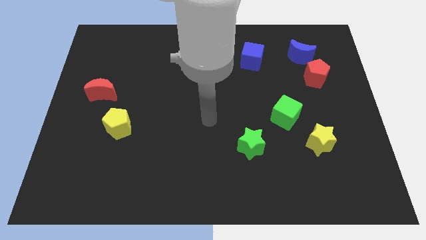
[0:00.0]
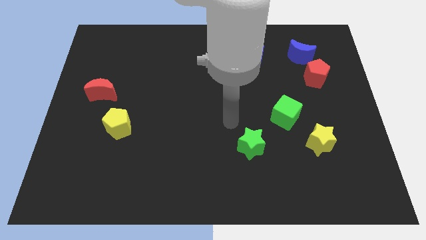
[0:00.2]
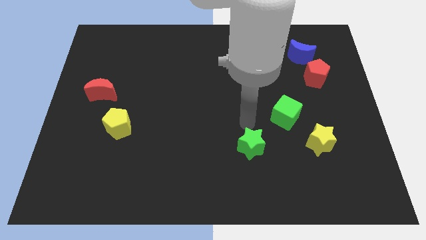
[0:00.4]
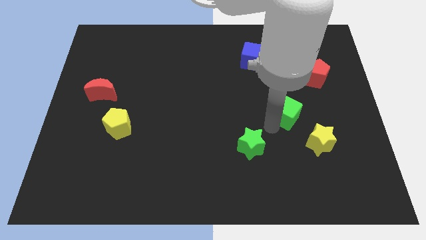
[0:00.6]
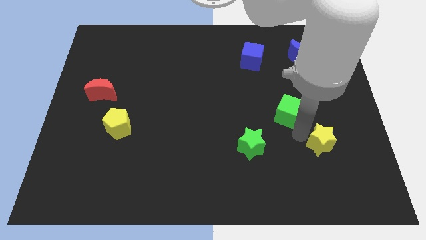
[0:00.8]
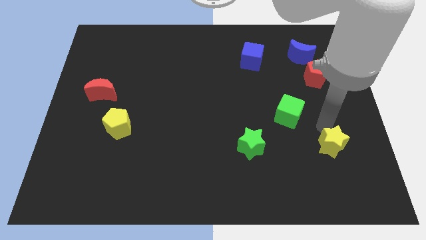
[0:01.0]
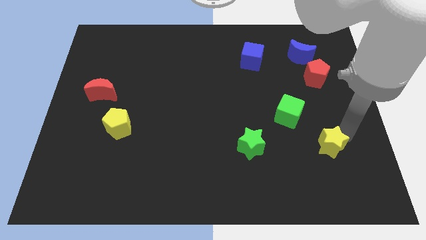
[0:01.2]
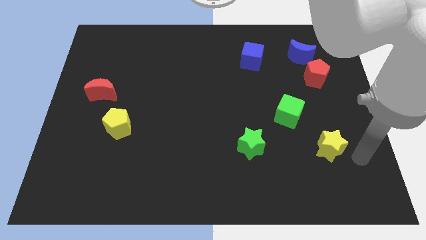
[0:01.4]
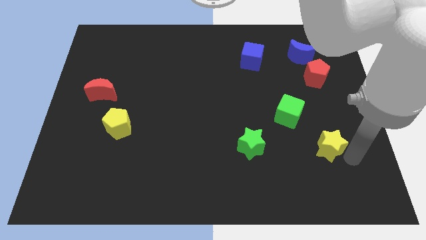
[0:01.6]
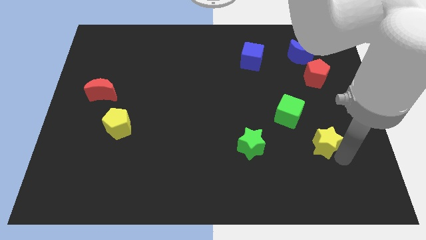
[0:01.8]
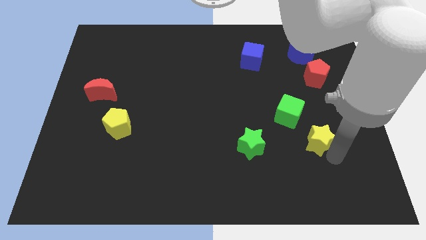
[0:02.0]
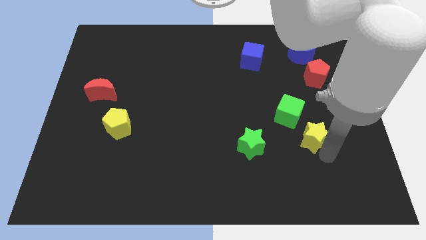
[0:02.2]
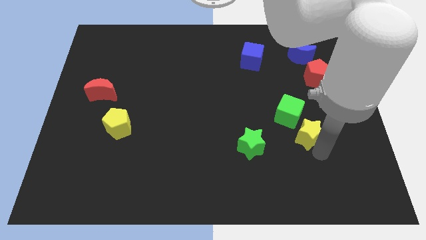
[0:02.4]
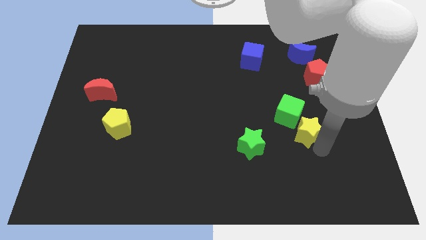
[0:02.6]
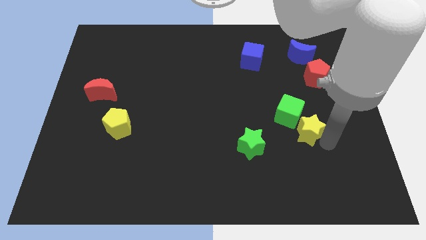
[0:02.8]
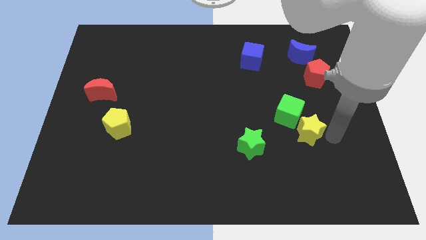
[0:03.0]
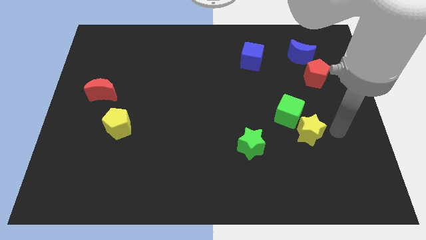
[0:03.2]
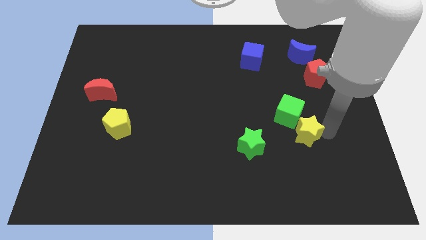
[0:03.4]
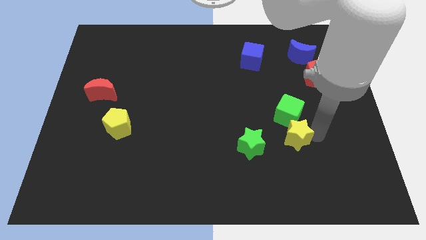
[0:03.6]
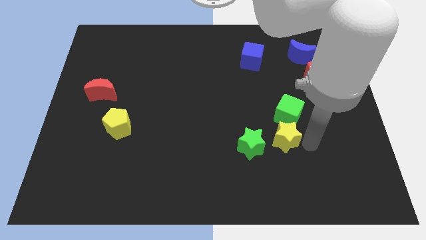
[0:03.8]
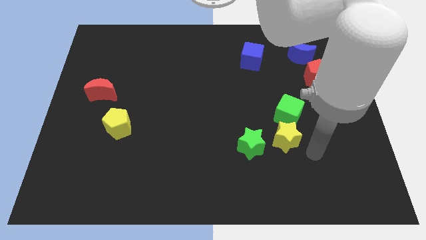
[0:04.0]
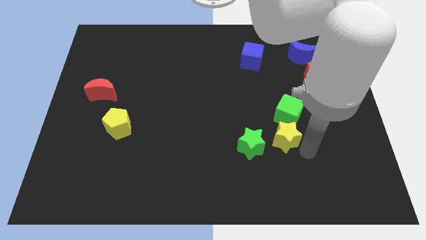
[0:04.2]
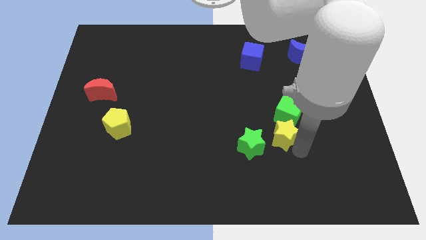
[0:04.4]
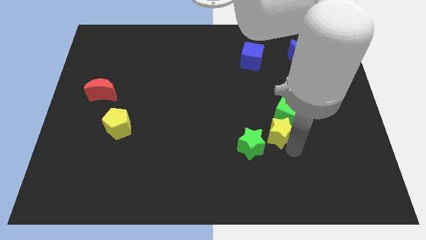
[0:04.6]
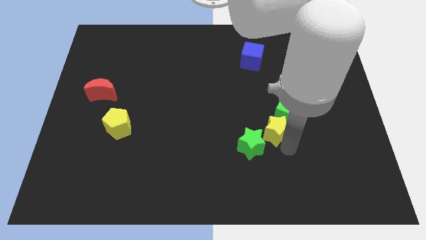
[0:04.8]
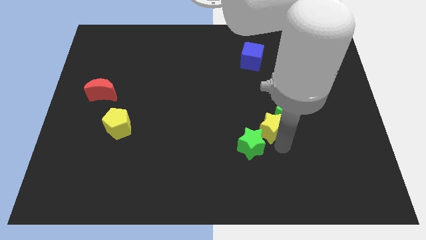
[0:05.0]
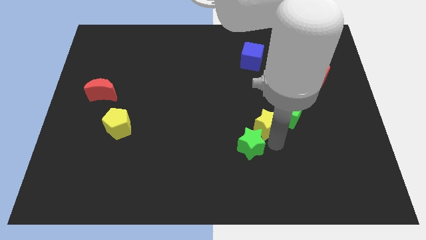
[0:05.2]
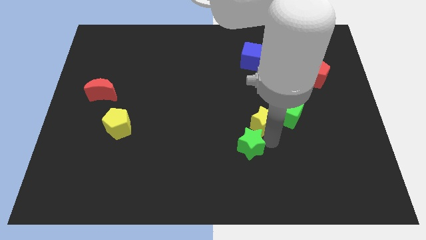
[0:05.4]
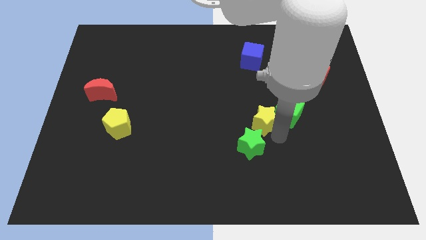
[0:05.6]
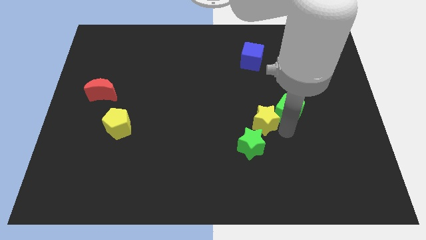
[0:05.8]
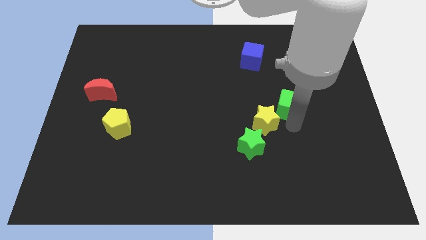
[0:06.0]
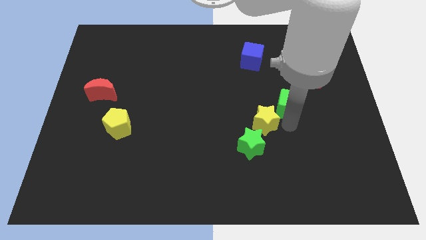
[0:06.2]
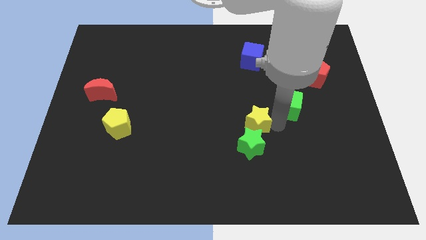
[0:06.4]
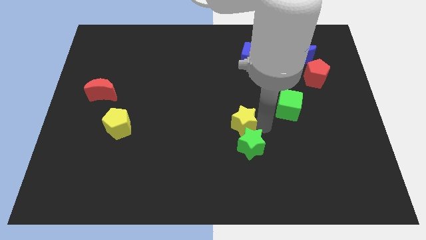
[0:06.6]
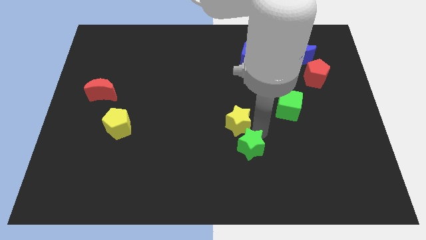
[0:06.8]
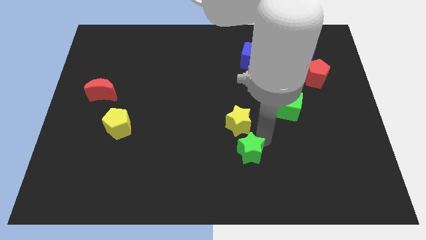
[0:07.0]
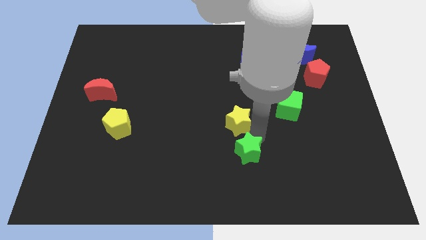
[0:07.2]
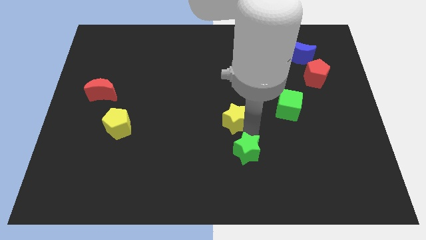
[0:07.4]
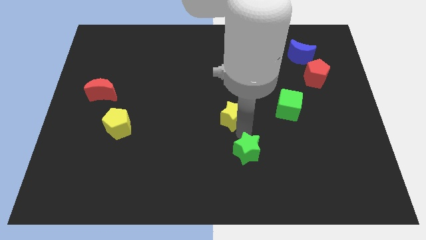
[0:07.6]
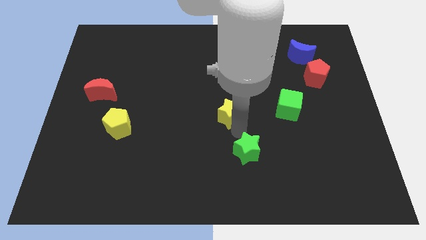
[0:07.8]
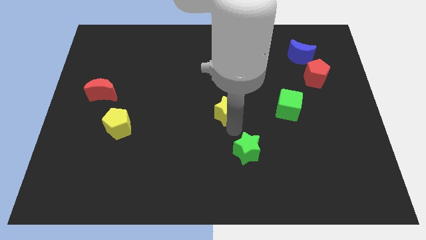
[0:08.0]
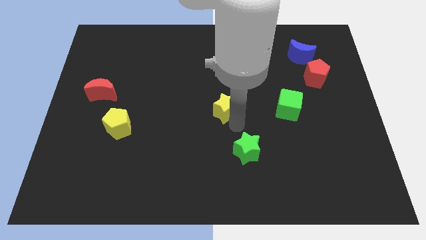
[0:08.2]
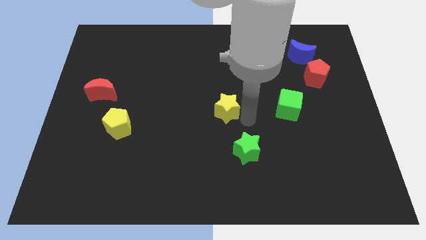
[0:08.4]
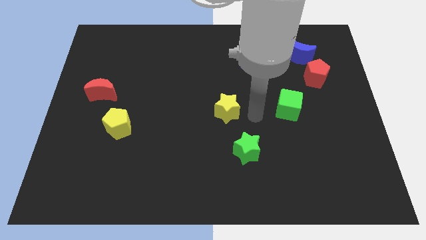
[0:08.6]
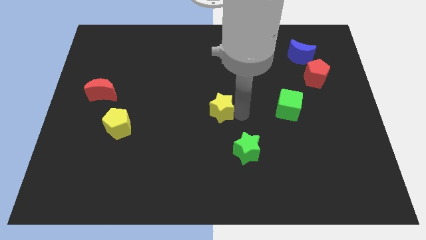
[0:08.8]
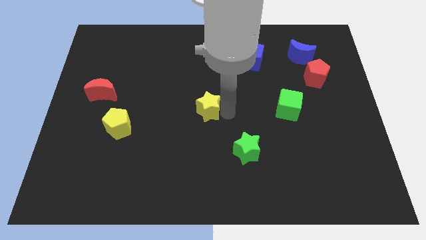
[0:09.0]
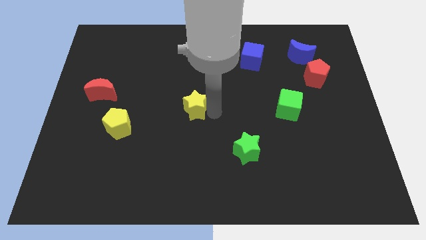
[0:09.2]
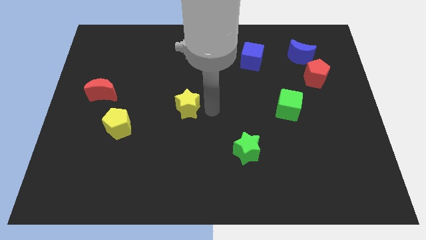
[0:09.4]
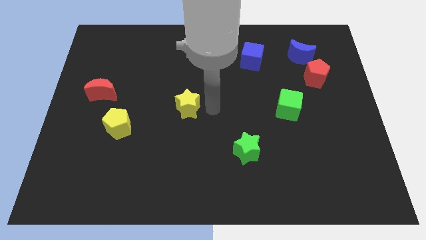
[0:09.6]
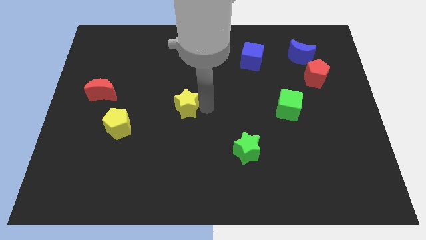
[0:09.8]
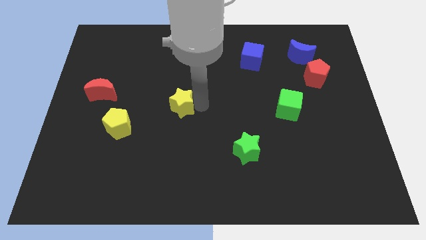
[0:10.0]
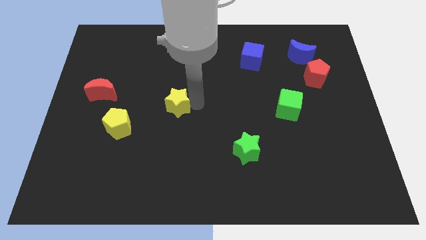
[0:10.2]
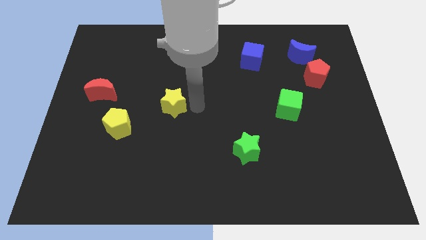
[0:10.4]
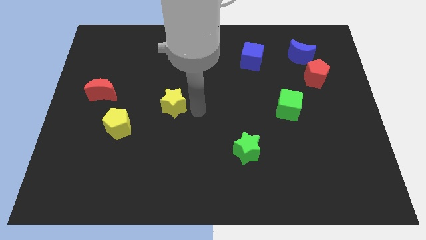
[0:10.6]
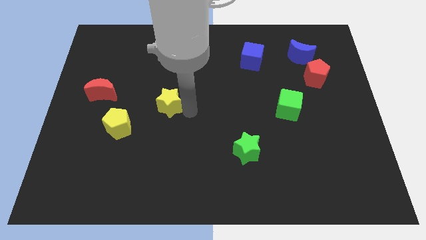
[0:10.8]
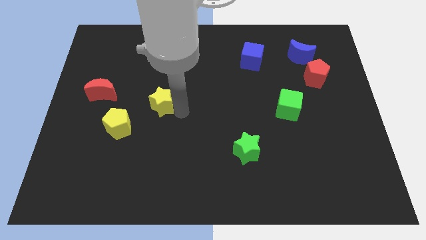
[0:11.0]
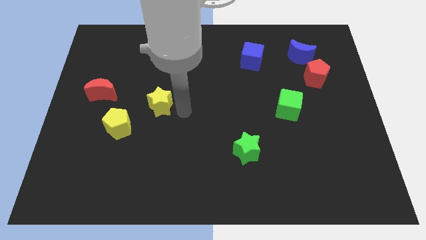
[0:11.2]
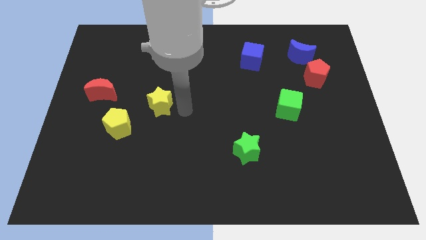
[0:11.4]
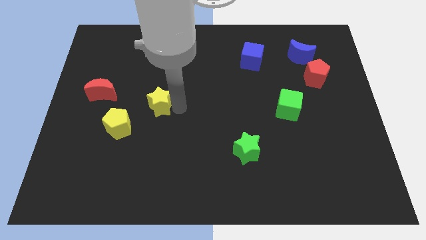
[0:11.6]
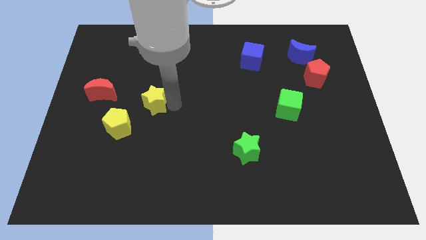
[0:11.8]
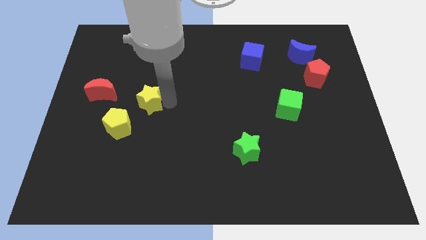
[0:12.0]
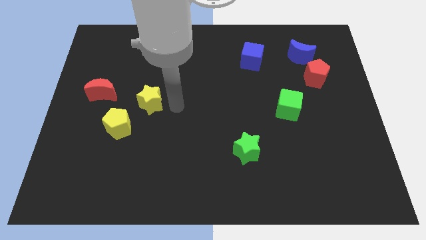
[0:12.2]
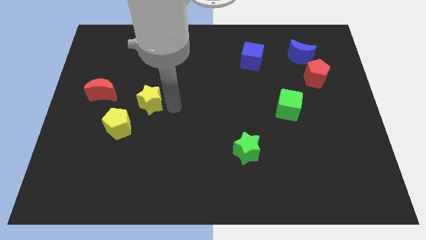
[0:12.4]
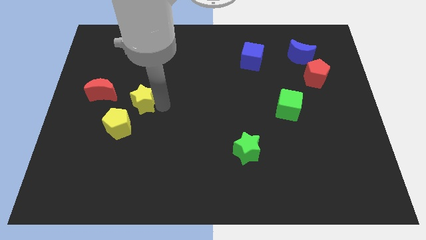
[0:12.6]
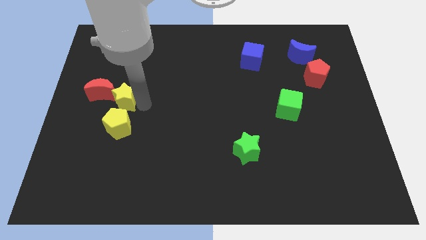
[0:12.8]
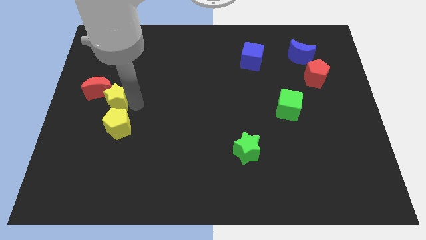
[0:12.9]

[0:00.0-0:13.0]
move the yellow star close to the red moon

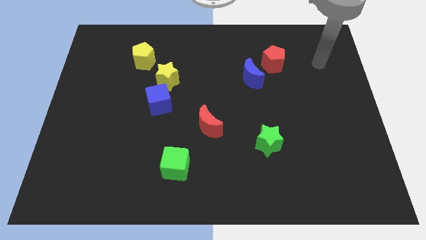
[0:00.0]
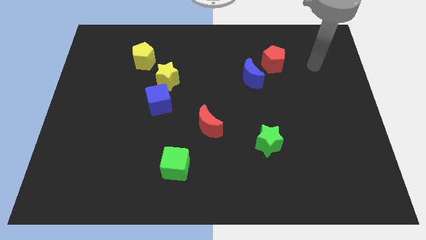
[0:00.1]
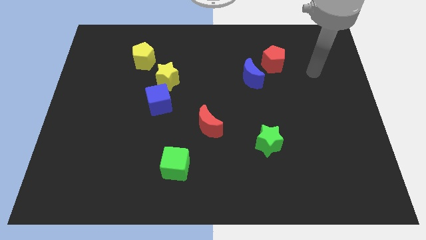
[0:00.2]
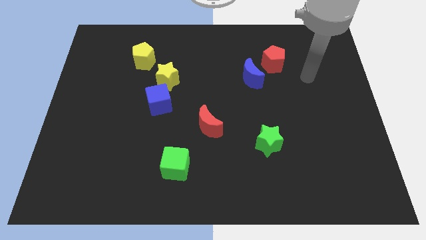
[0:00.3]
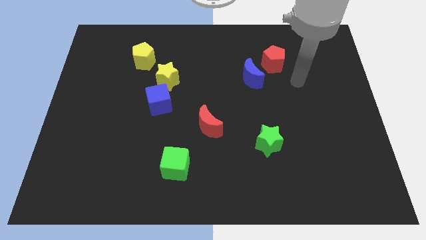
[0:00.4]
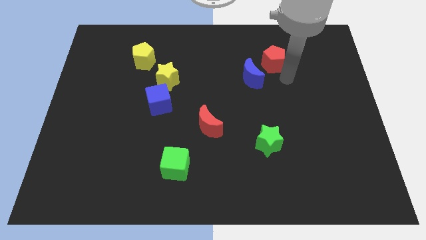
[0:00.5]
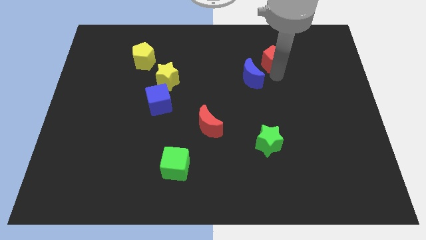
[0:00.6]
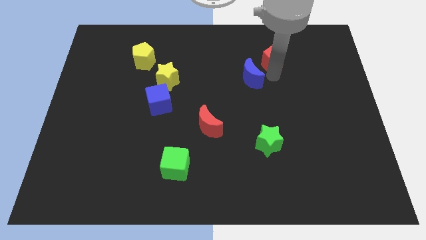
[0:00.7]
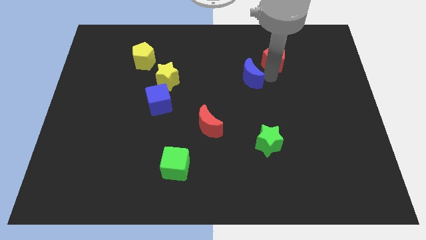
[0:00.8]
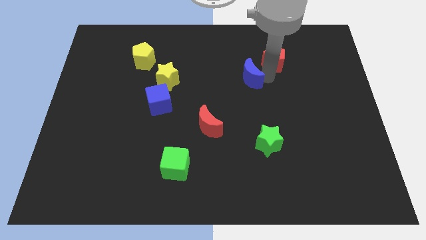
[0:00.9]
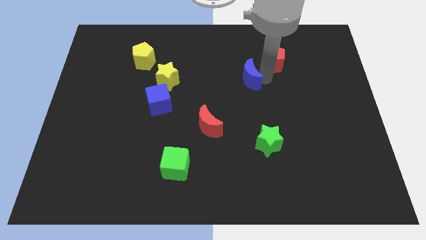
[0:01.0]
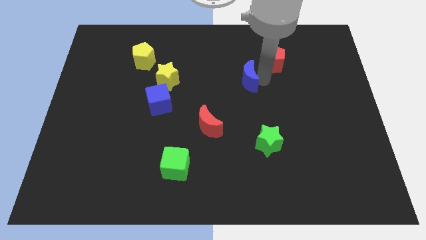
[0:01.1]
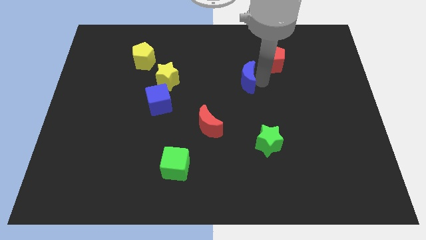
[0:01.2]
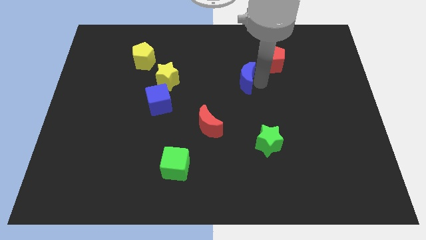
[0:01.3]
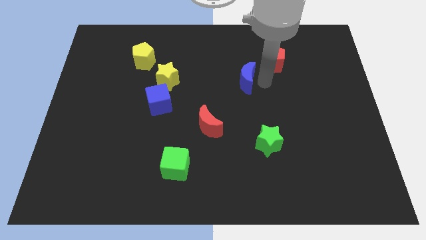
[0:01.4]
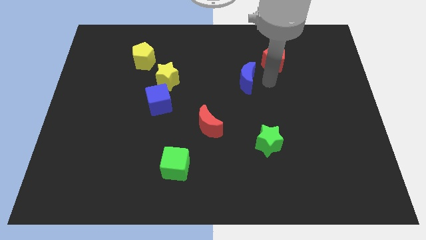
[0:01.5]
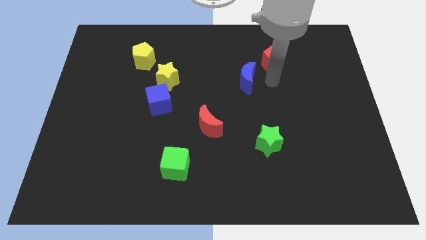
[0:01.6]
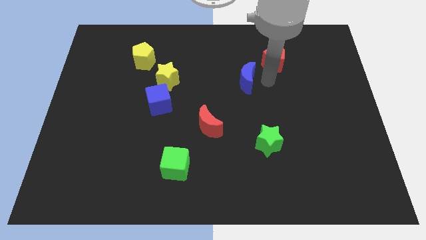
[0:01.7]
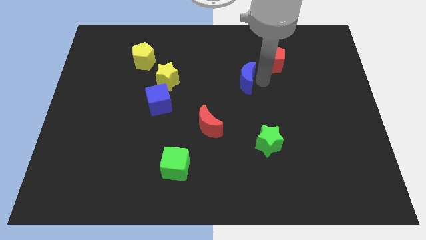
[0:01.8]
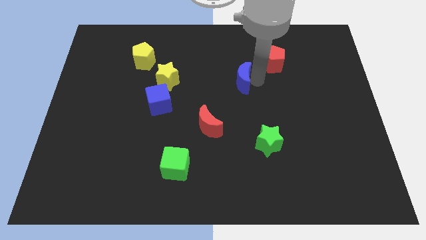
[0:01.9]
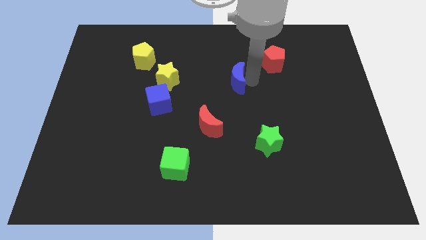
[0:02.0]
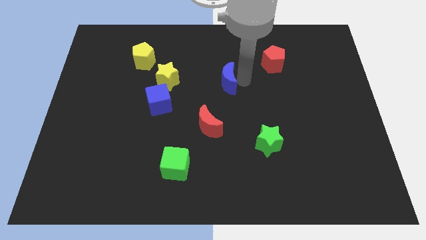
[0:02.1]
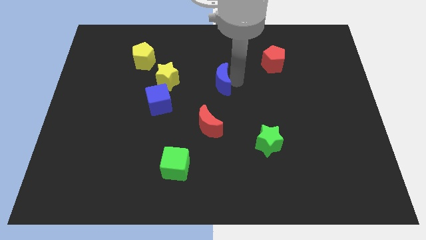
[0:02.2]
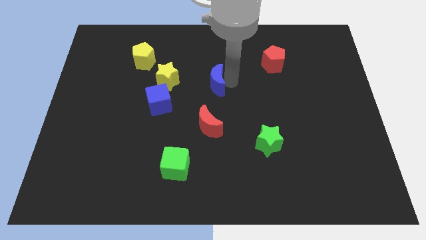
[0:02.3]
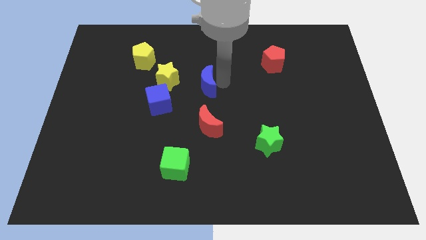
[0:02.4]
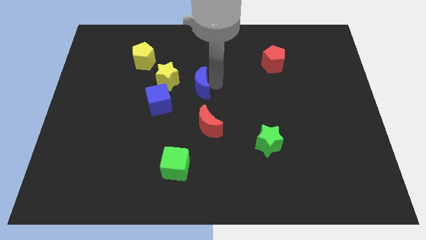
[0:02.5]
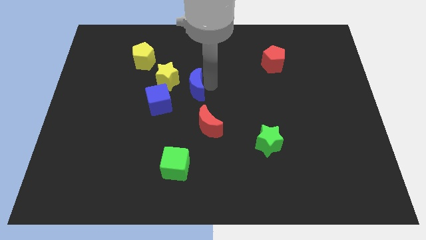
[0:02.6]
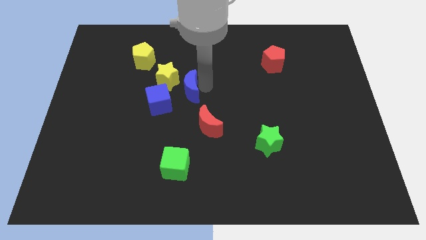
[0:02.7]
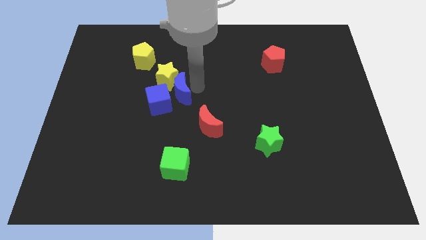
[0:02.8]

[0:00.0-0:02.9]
move the blue moon next to the blue cube
